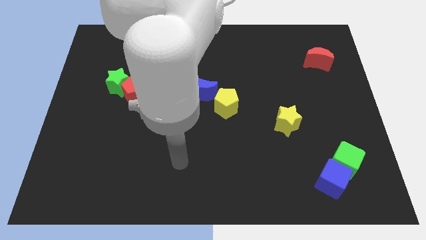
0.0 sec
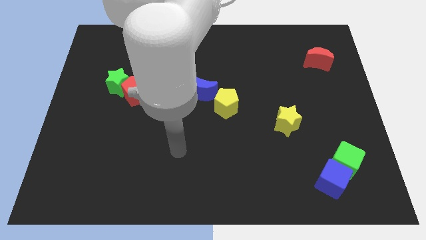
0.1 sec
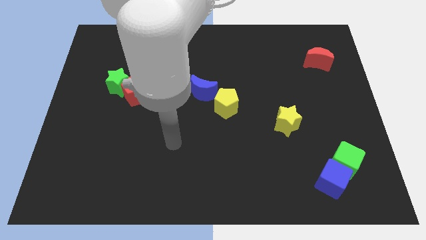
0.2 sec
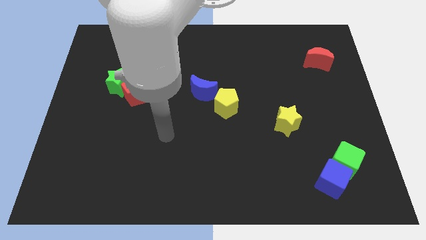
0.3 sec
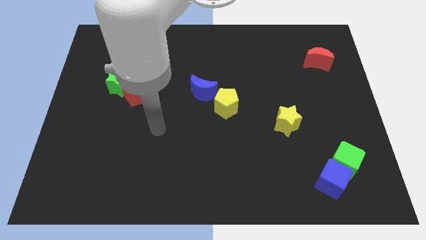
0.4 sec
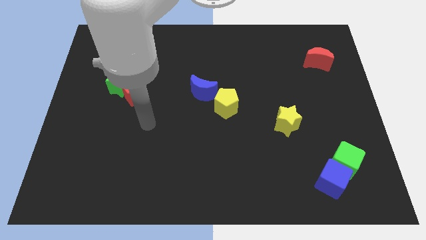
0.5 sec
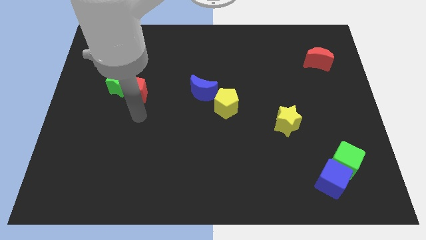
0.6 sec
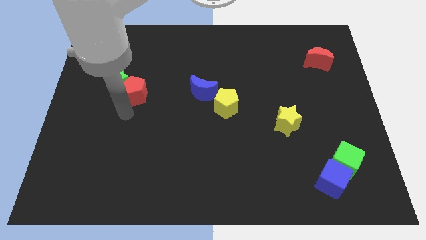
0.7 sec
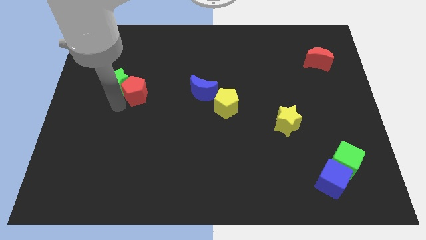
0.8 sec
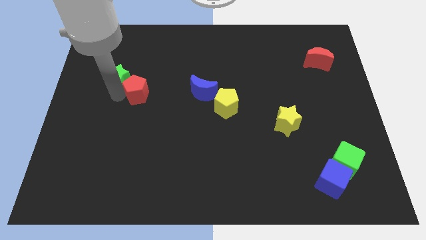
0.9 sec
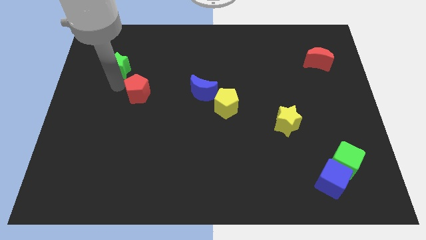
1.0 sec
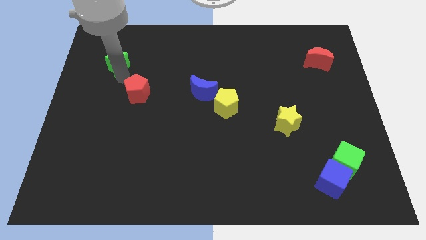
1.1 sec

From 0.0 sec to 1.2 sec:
move the red pentagon away from the green star

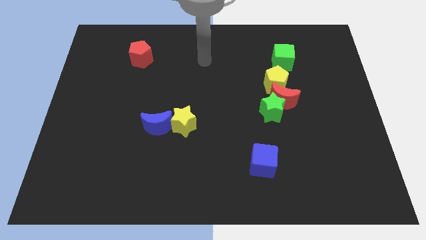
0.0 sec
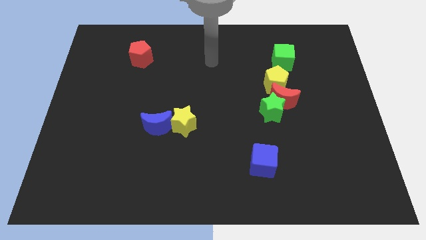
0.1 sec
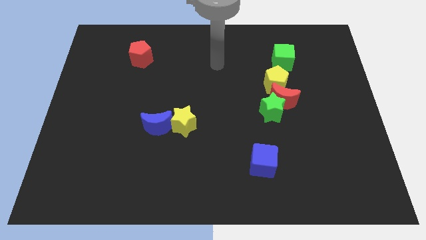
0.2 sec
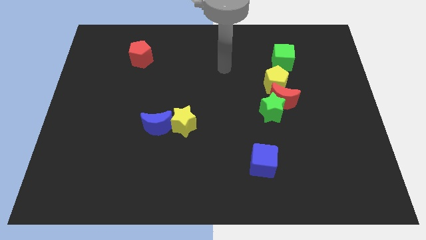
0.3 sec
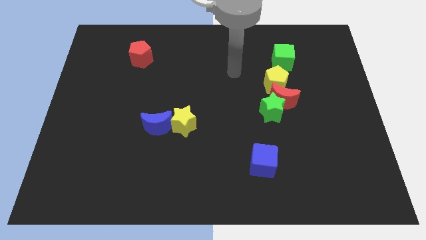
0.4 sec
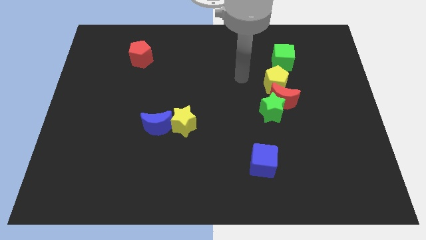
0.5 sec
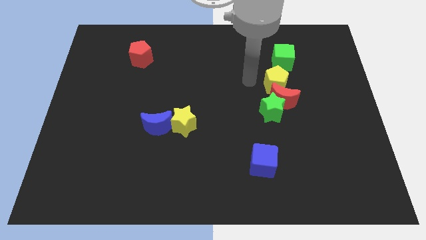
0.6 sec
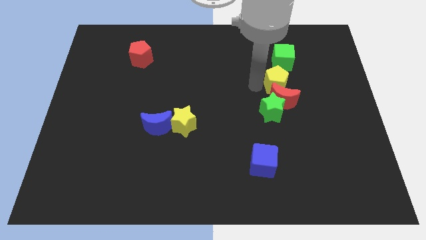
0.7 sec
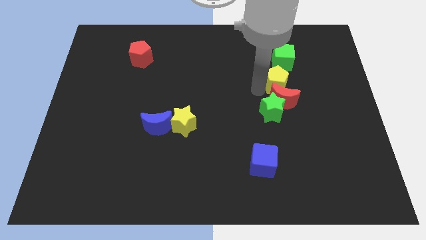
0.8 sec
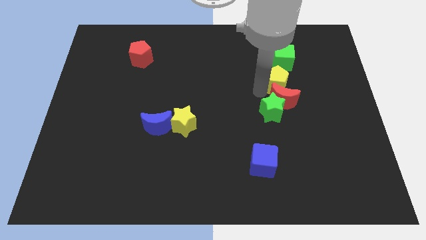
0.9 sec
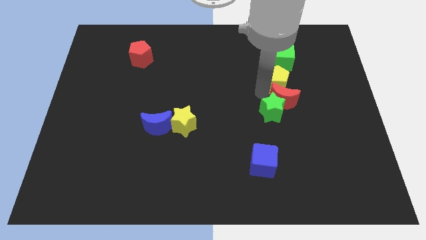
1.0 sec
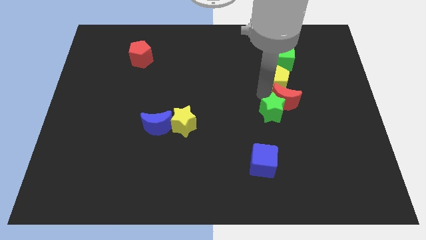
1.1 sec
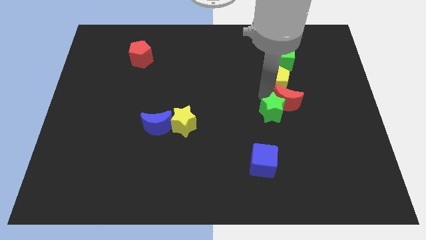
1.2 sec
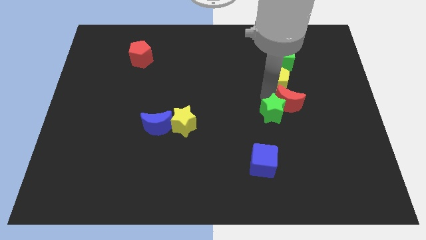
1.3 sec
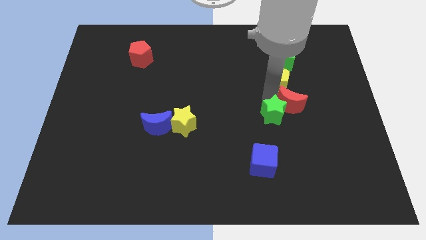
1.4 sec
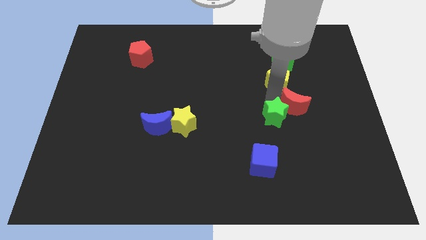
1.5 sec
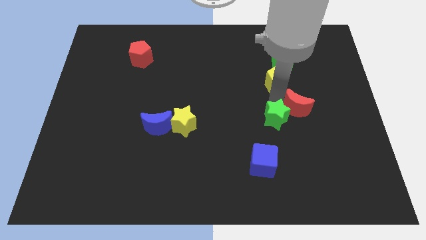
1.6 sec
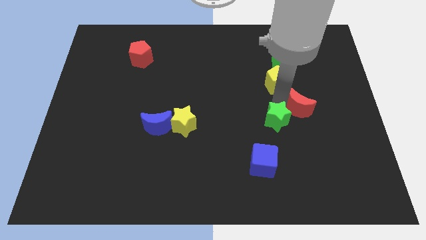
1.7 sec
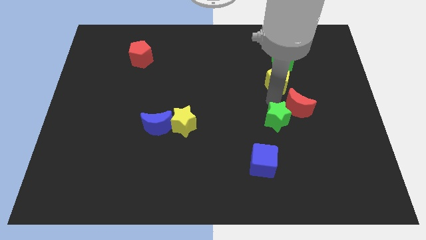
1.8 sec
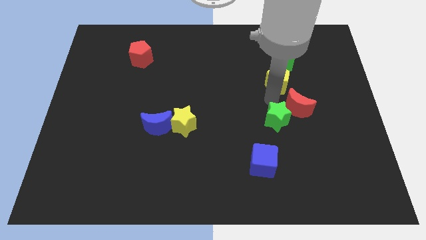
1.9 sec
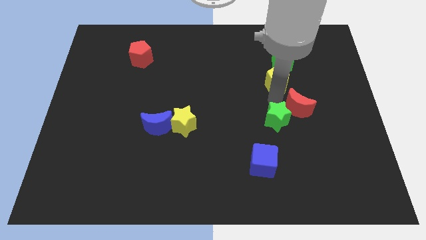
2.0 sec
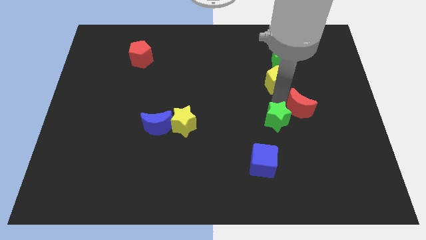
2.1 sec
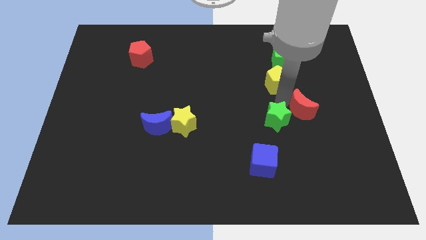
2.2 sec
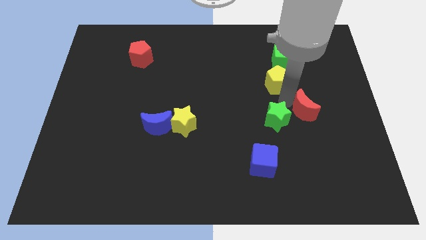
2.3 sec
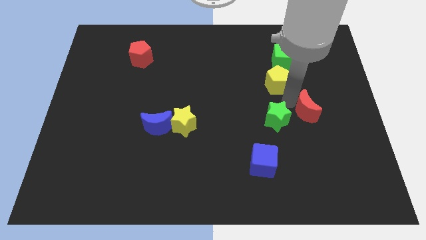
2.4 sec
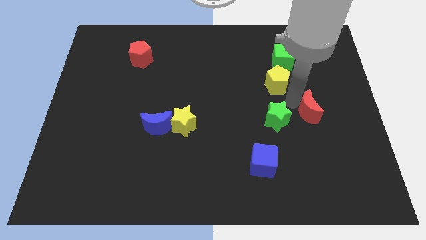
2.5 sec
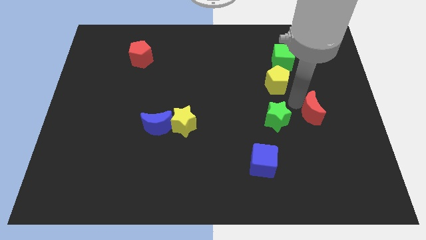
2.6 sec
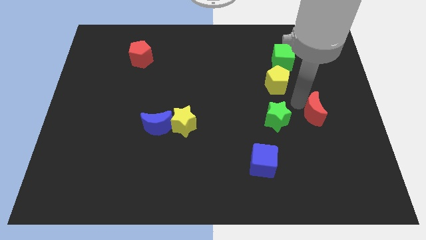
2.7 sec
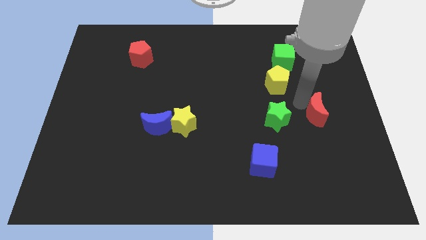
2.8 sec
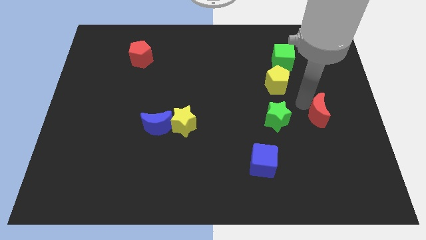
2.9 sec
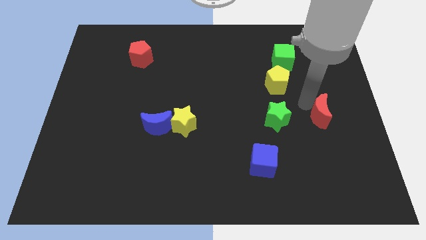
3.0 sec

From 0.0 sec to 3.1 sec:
pull the red moon apart from the green star and yellow pentagon

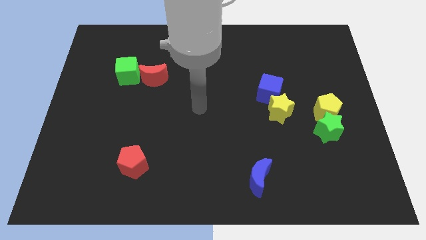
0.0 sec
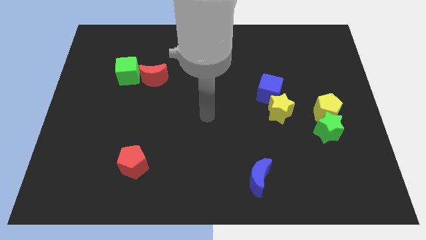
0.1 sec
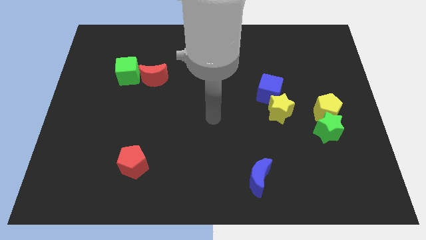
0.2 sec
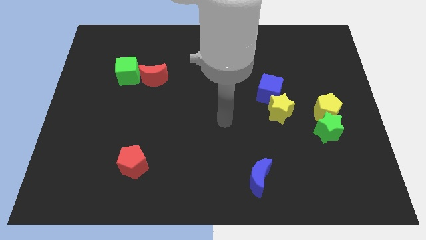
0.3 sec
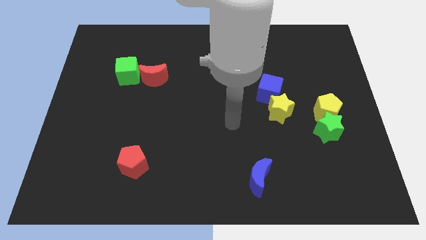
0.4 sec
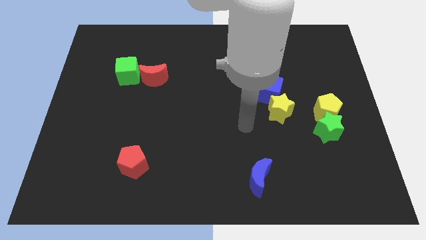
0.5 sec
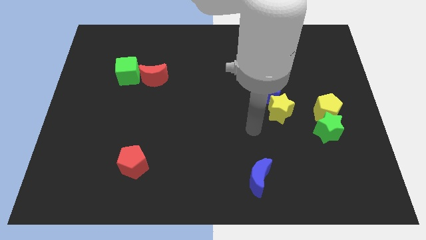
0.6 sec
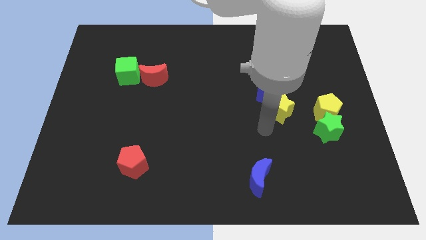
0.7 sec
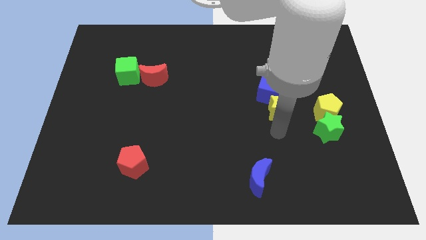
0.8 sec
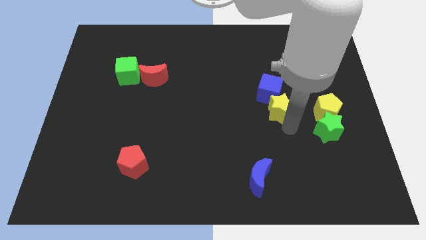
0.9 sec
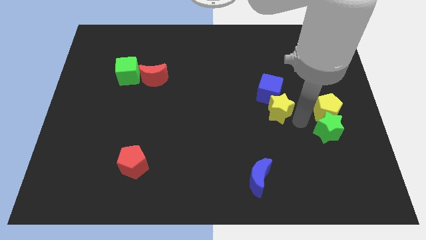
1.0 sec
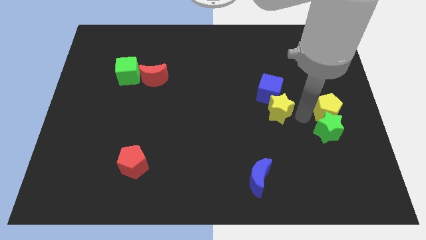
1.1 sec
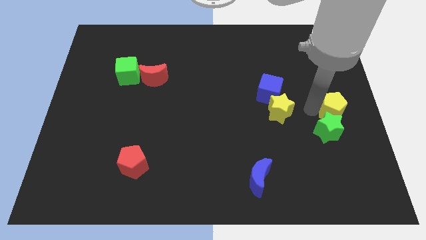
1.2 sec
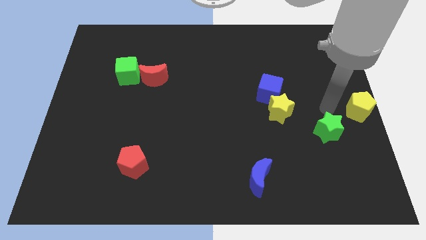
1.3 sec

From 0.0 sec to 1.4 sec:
separate the green star from the yellow pentagon

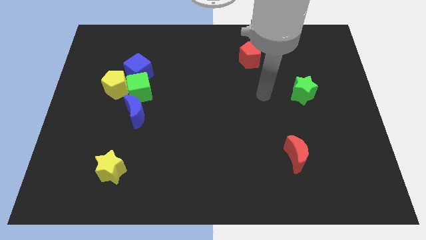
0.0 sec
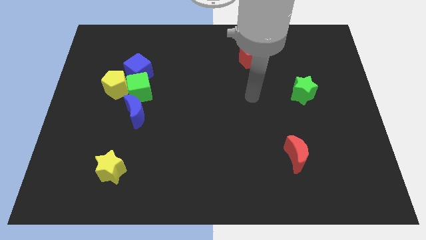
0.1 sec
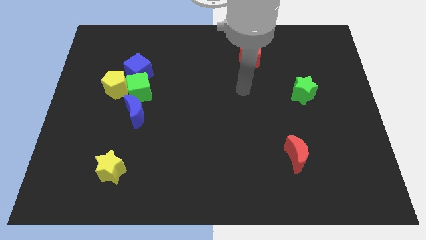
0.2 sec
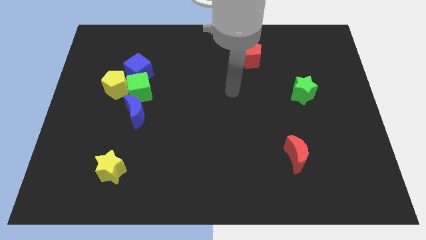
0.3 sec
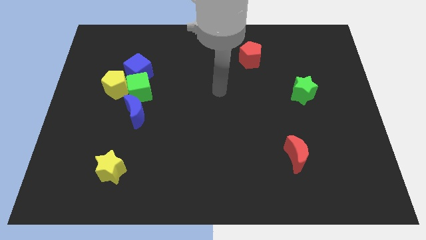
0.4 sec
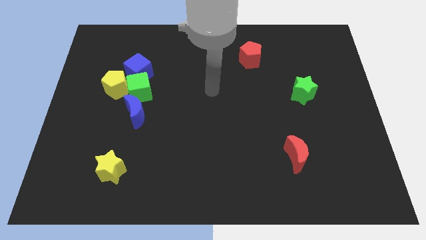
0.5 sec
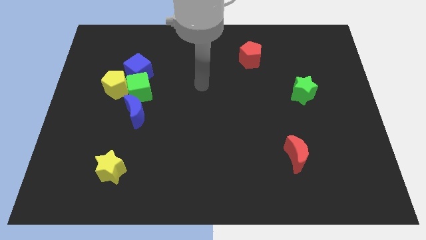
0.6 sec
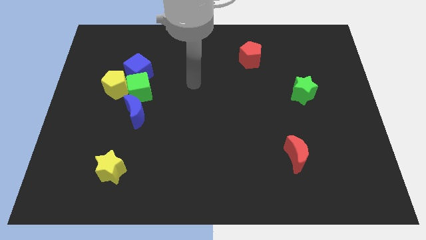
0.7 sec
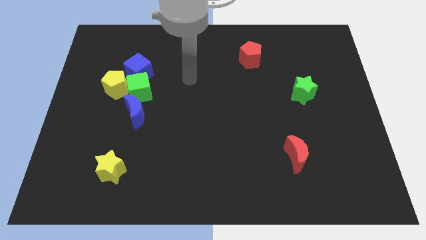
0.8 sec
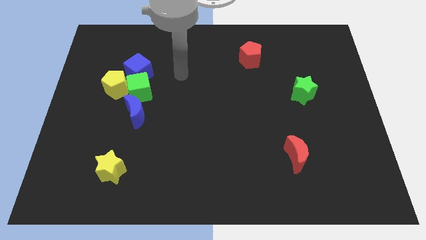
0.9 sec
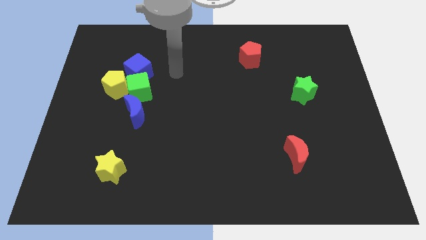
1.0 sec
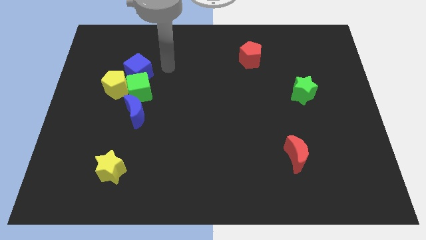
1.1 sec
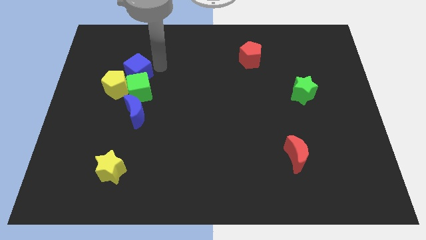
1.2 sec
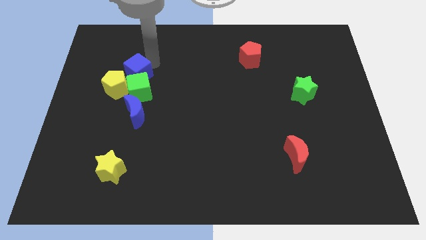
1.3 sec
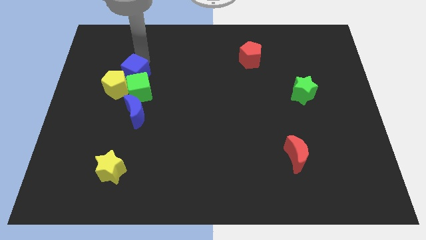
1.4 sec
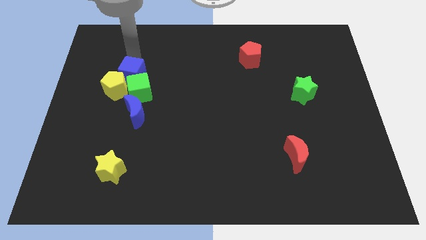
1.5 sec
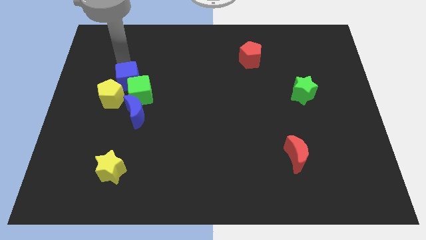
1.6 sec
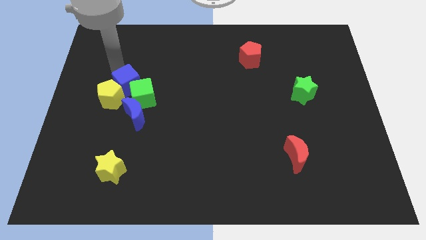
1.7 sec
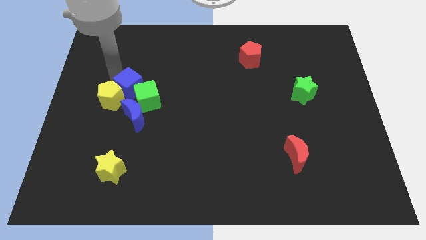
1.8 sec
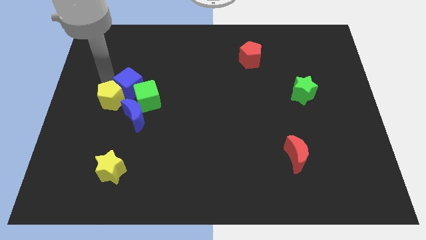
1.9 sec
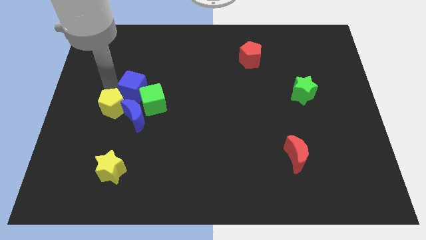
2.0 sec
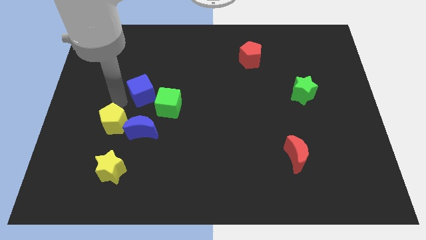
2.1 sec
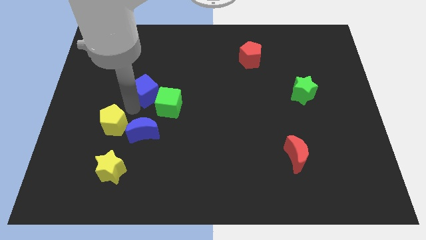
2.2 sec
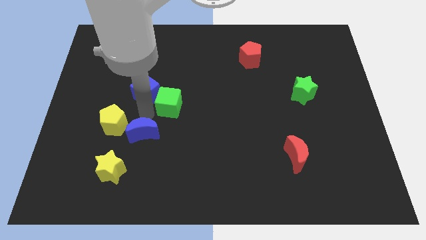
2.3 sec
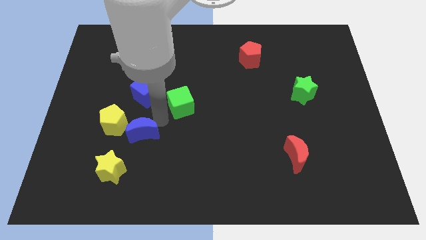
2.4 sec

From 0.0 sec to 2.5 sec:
pull the green cube apart from the group

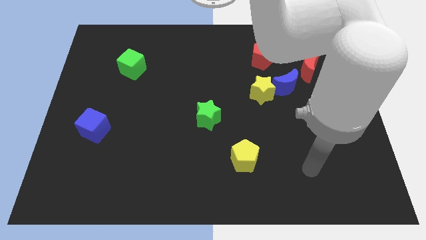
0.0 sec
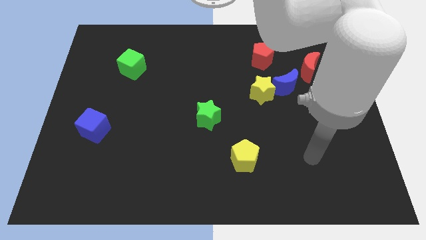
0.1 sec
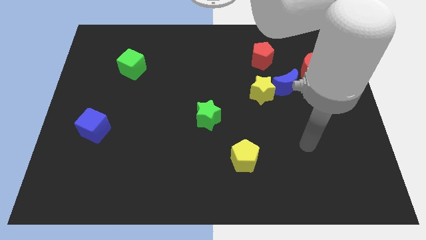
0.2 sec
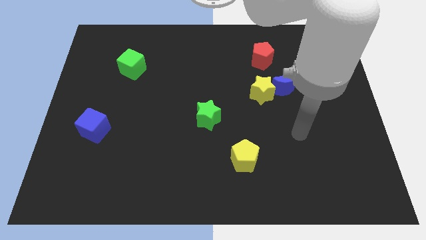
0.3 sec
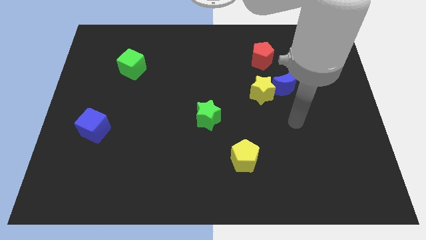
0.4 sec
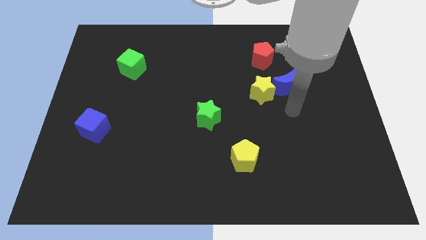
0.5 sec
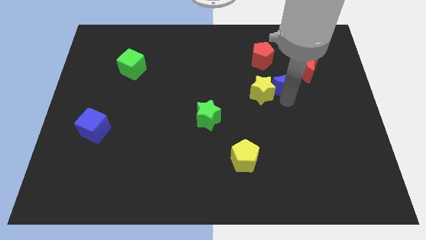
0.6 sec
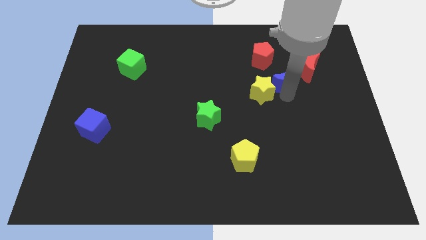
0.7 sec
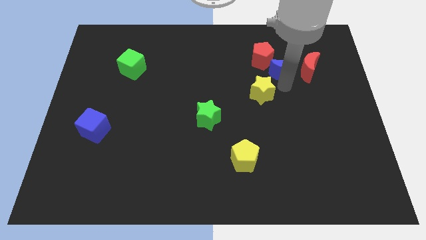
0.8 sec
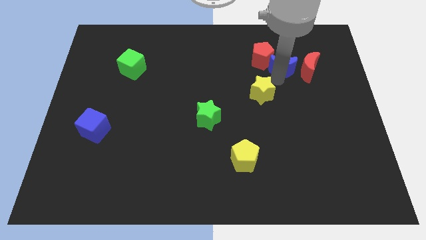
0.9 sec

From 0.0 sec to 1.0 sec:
move the yellow star away from the blue moon
